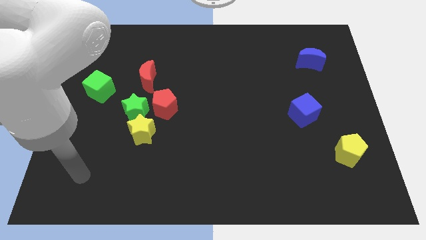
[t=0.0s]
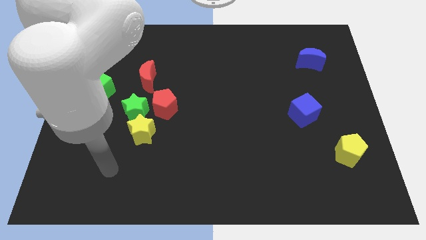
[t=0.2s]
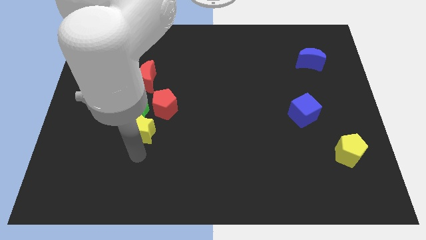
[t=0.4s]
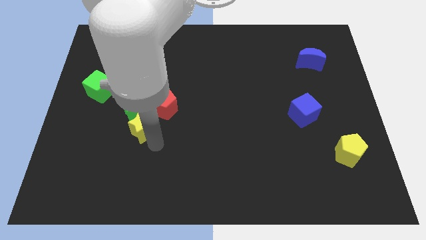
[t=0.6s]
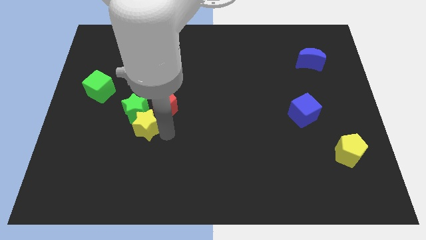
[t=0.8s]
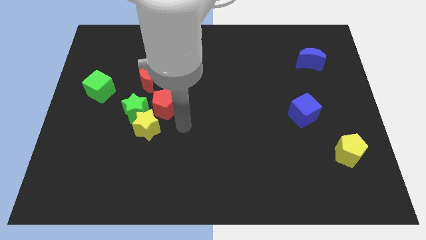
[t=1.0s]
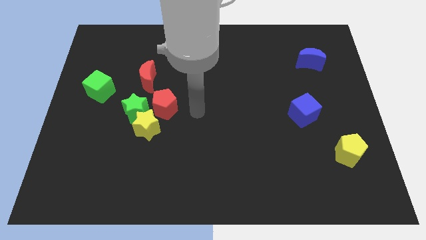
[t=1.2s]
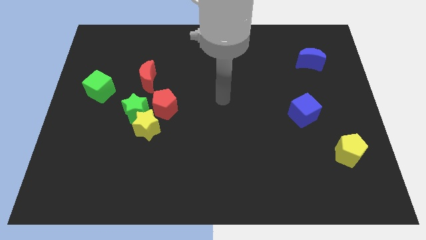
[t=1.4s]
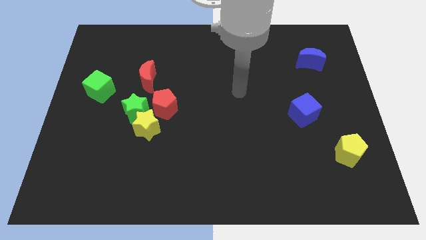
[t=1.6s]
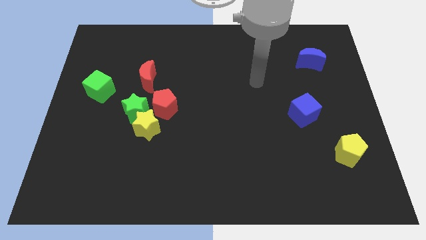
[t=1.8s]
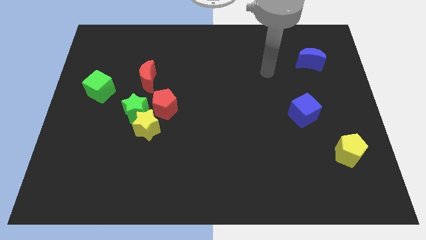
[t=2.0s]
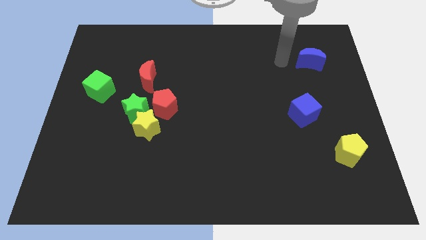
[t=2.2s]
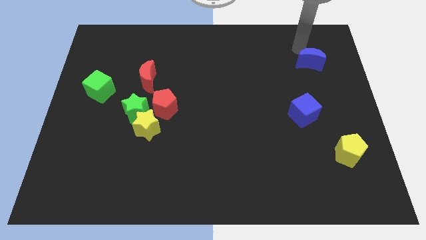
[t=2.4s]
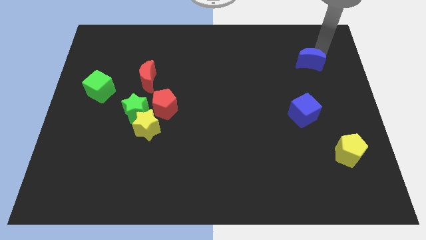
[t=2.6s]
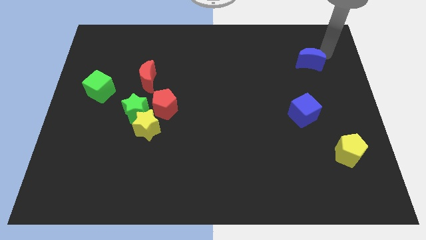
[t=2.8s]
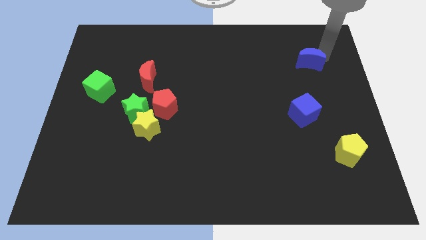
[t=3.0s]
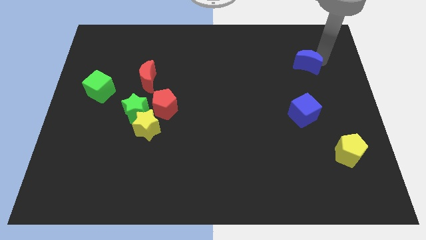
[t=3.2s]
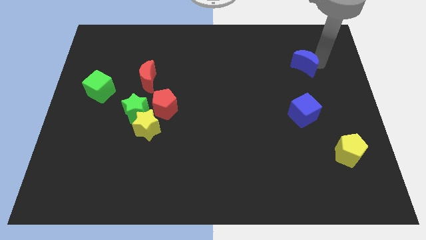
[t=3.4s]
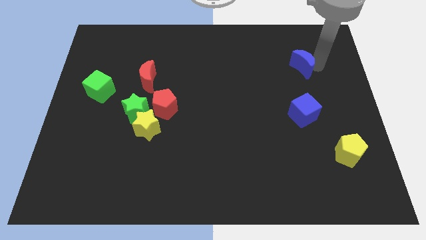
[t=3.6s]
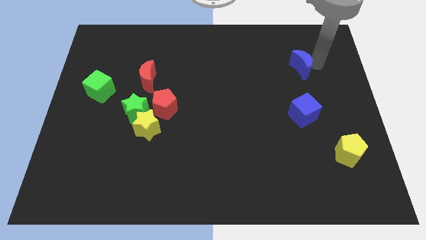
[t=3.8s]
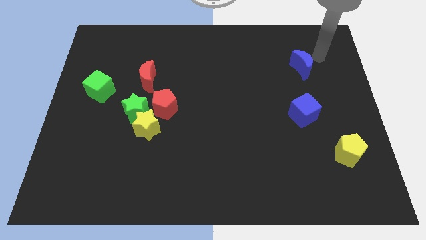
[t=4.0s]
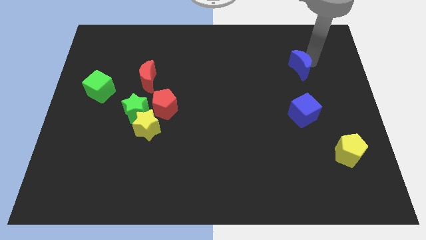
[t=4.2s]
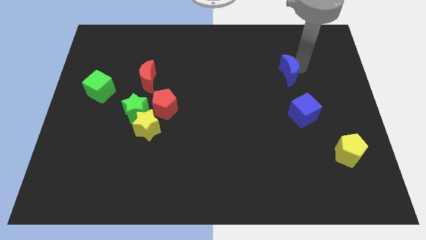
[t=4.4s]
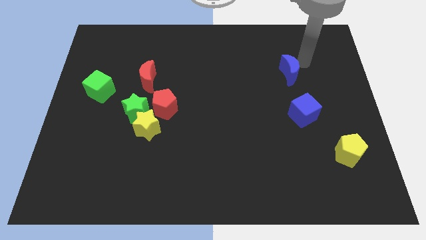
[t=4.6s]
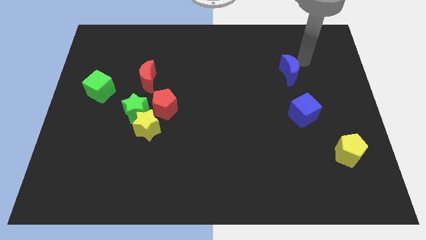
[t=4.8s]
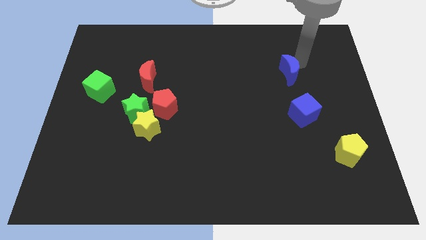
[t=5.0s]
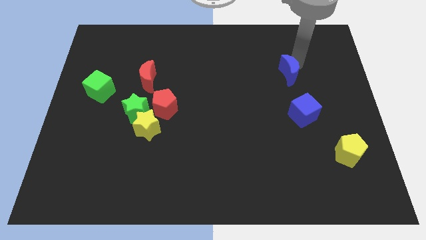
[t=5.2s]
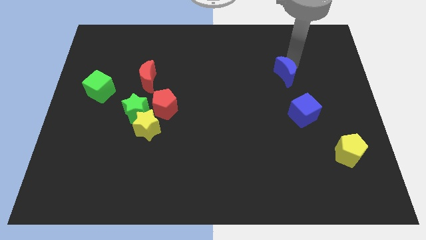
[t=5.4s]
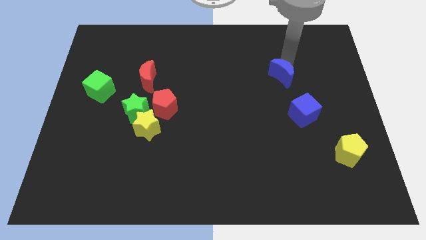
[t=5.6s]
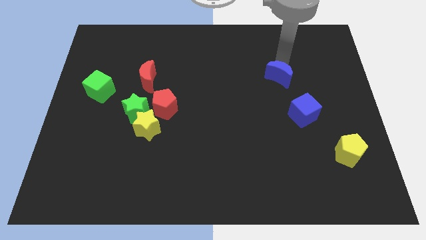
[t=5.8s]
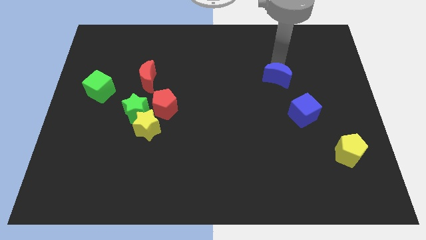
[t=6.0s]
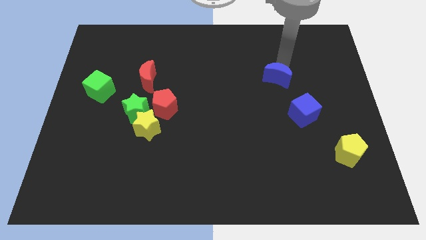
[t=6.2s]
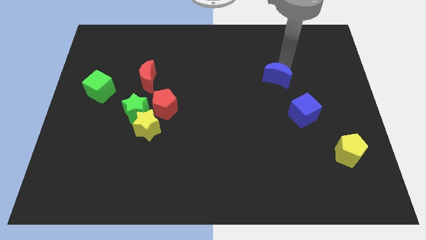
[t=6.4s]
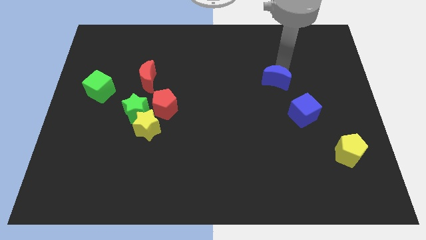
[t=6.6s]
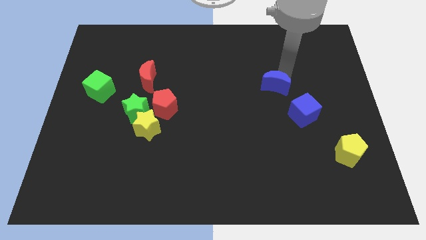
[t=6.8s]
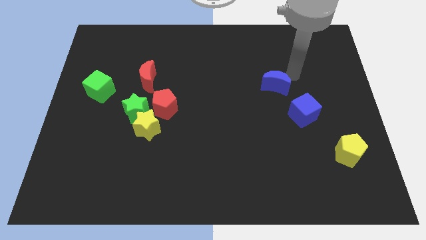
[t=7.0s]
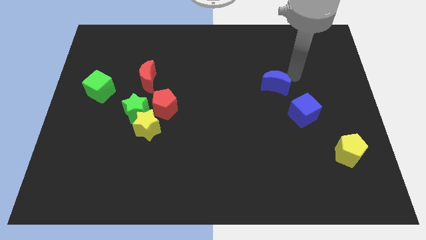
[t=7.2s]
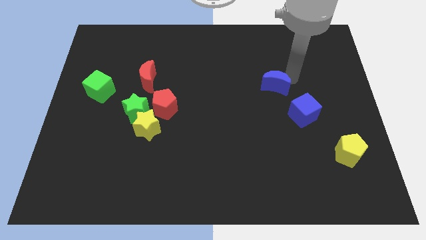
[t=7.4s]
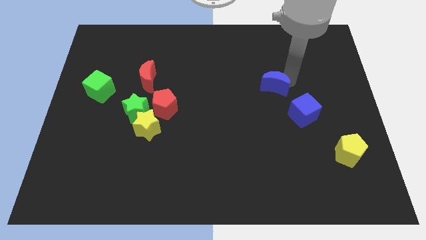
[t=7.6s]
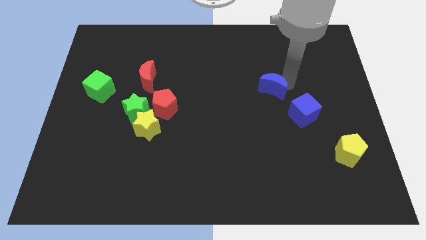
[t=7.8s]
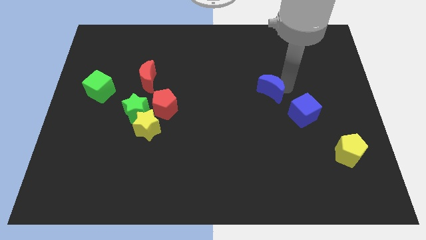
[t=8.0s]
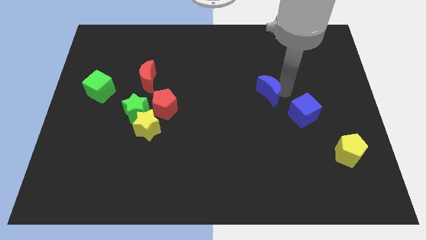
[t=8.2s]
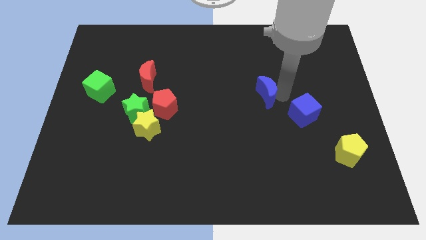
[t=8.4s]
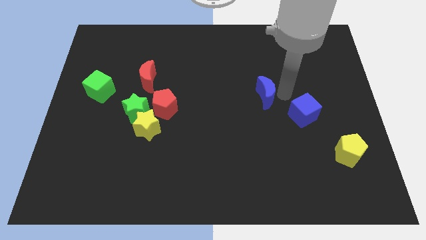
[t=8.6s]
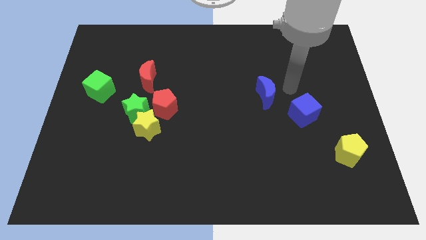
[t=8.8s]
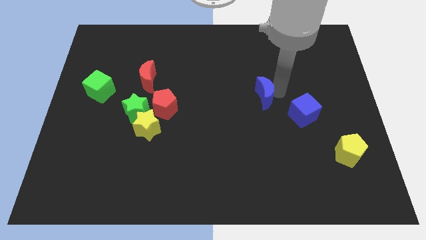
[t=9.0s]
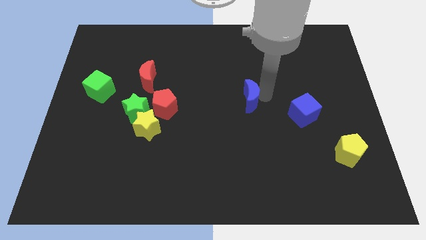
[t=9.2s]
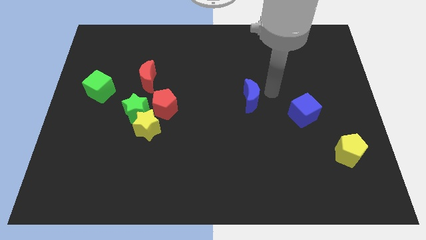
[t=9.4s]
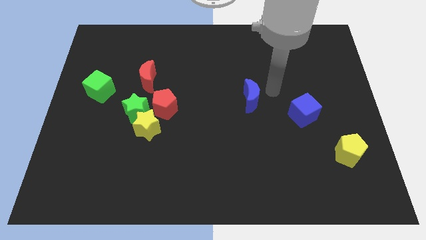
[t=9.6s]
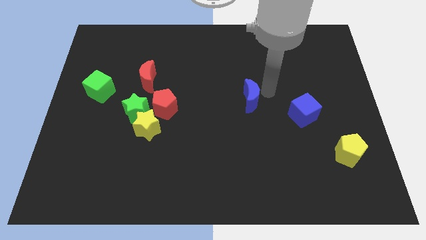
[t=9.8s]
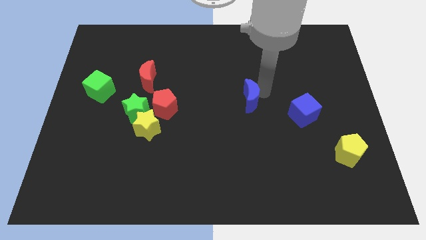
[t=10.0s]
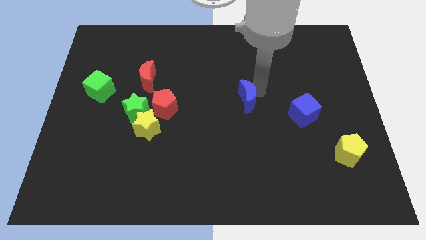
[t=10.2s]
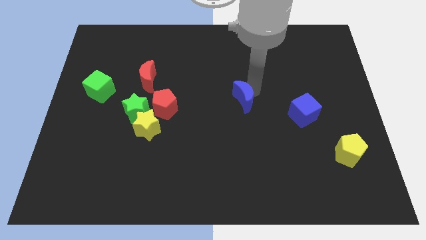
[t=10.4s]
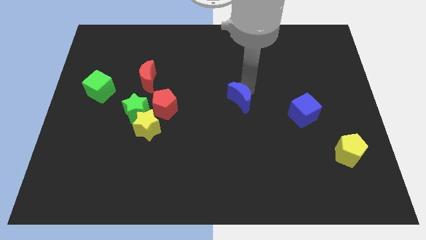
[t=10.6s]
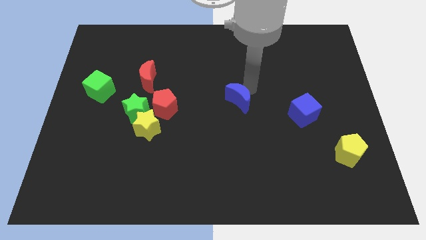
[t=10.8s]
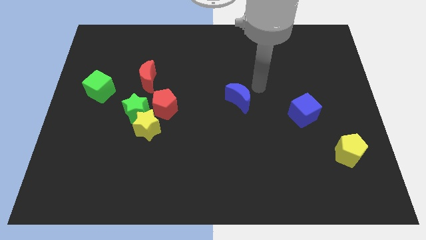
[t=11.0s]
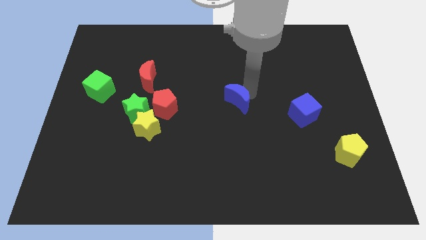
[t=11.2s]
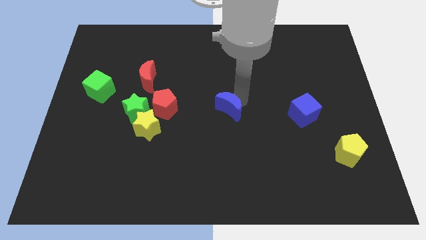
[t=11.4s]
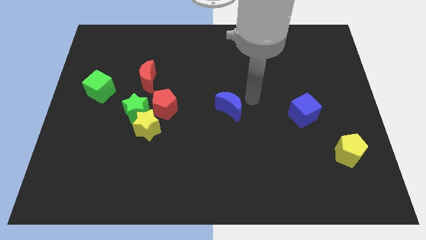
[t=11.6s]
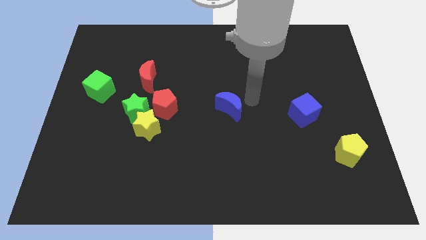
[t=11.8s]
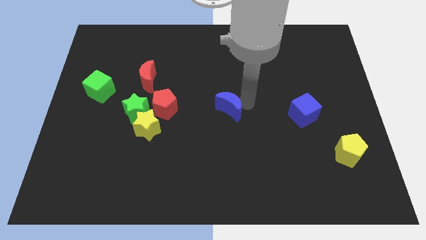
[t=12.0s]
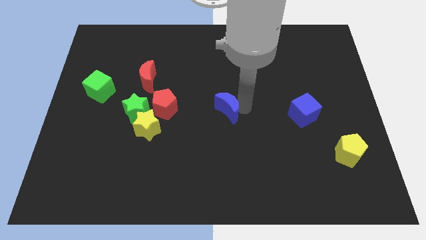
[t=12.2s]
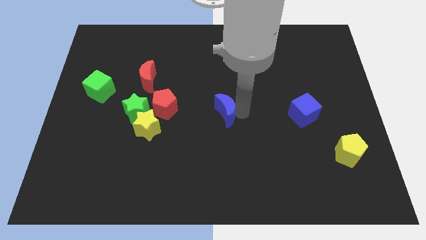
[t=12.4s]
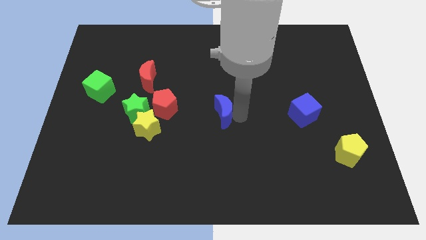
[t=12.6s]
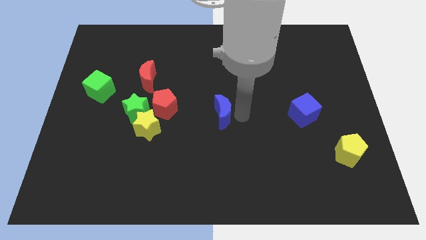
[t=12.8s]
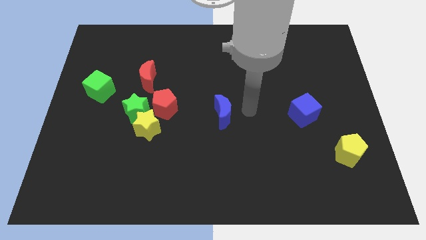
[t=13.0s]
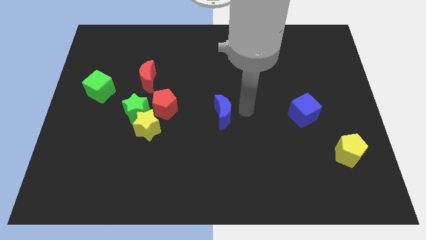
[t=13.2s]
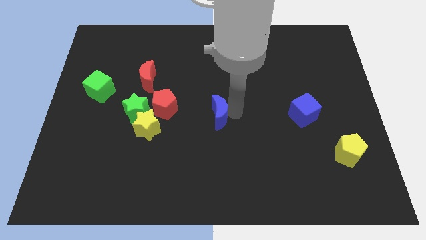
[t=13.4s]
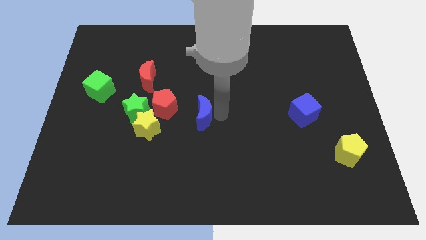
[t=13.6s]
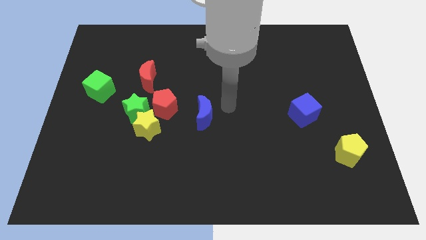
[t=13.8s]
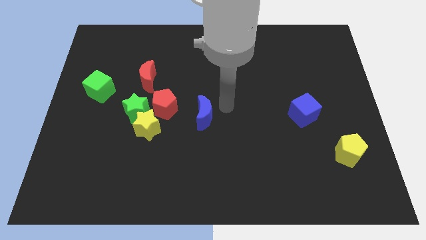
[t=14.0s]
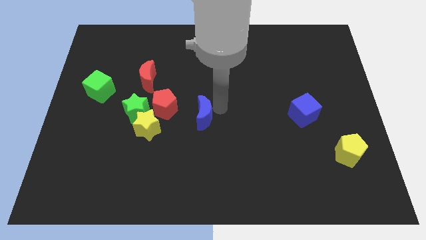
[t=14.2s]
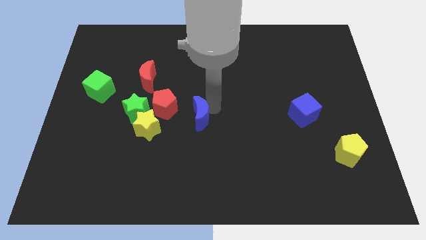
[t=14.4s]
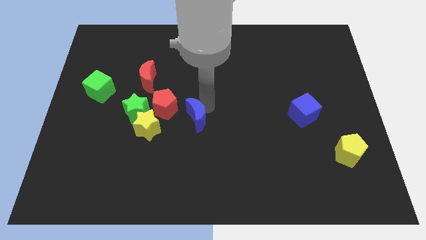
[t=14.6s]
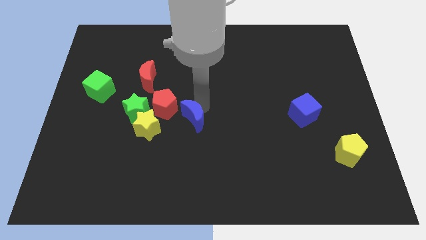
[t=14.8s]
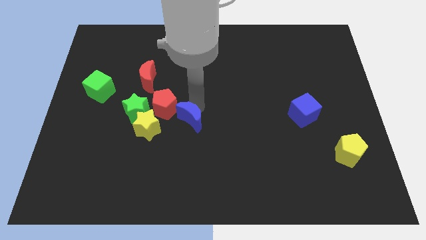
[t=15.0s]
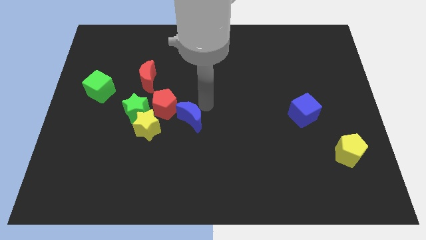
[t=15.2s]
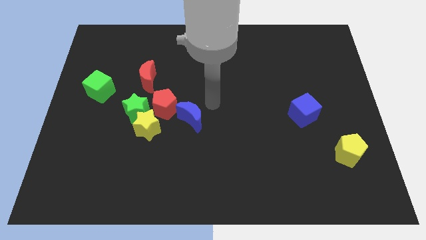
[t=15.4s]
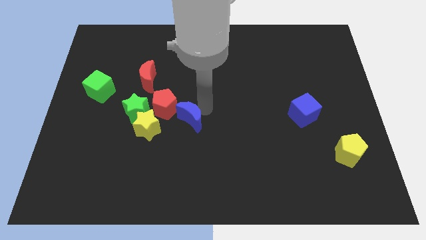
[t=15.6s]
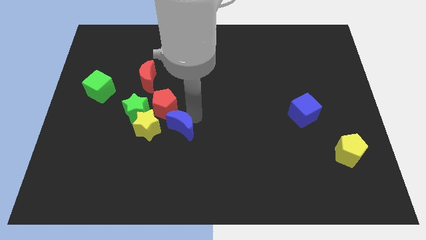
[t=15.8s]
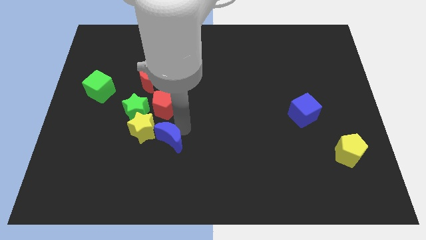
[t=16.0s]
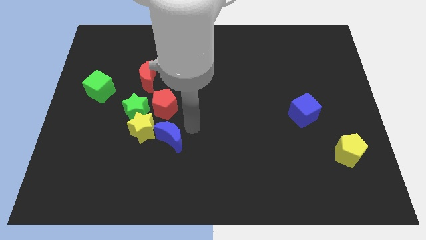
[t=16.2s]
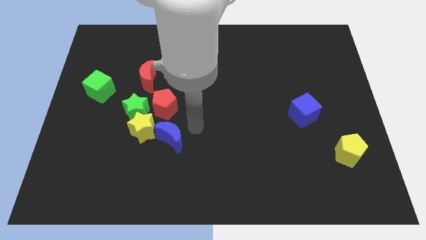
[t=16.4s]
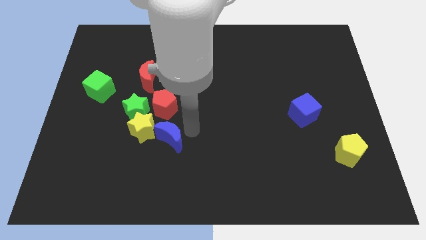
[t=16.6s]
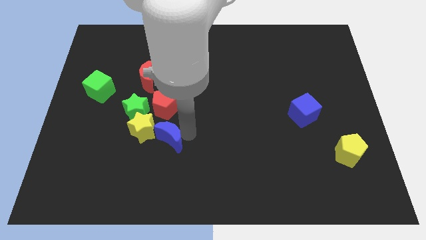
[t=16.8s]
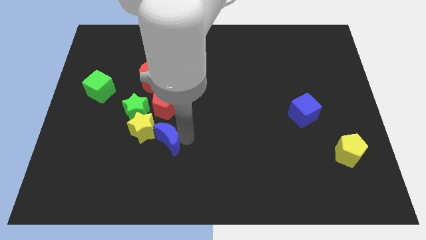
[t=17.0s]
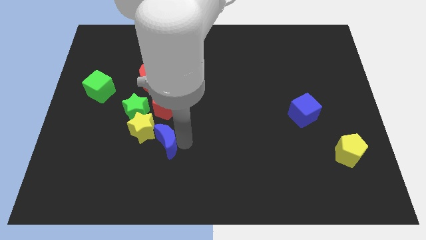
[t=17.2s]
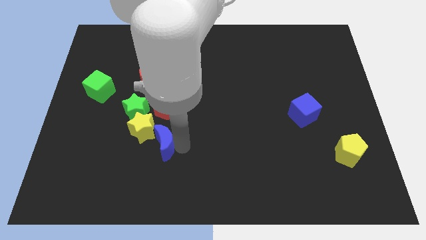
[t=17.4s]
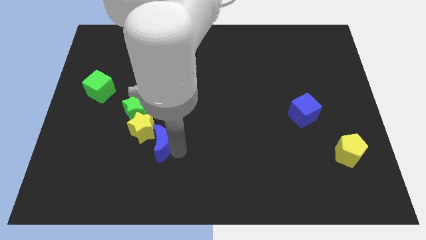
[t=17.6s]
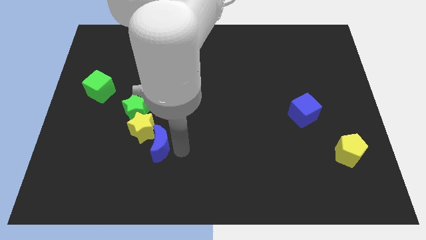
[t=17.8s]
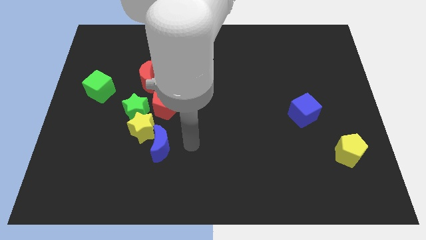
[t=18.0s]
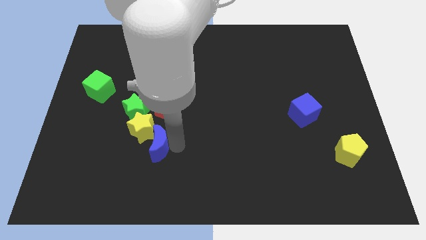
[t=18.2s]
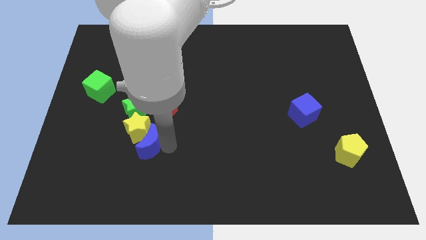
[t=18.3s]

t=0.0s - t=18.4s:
slide the blue moon to the bottom side of the green star
